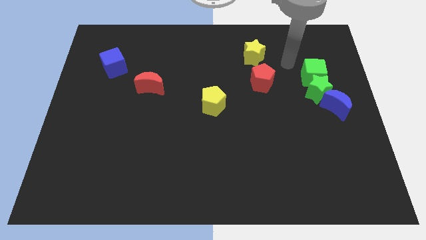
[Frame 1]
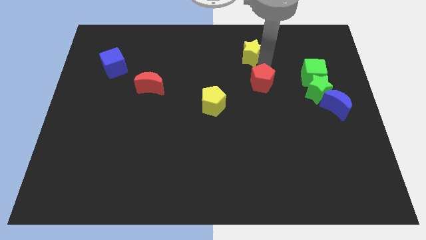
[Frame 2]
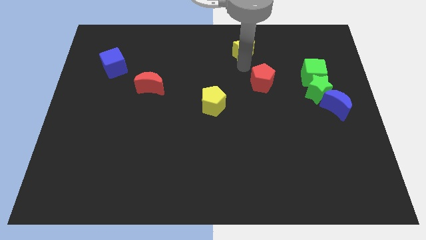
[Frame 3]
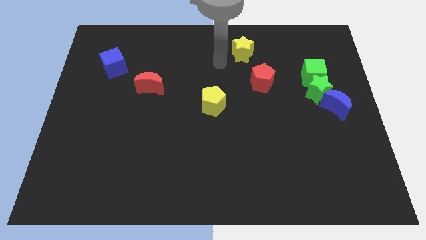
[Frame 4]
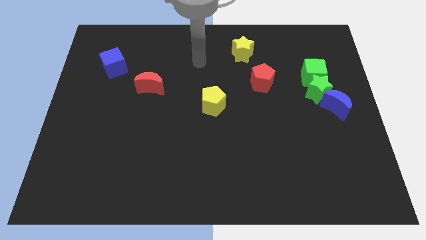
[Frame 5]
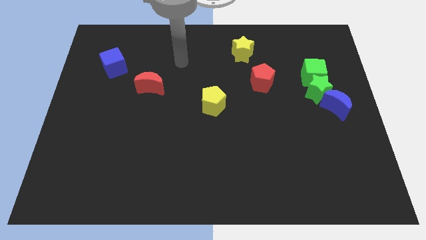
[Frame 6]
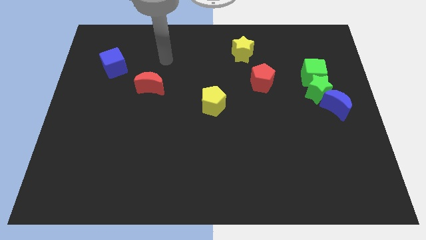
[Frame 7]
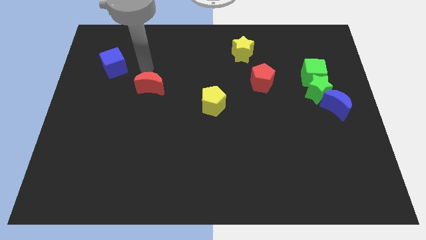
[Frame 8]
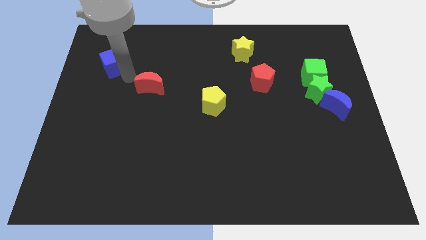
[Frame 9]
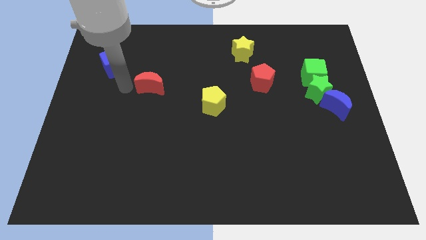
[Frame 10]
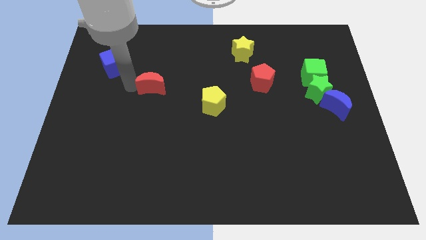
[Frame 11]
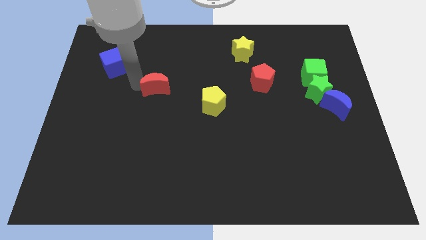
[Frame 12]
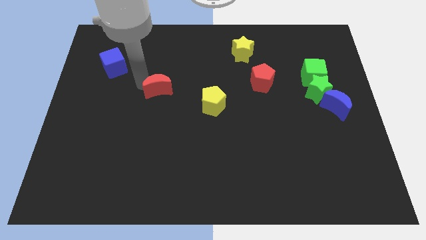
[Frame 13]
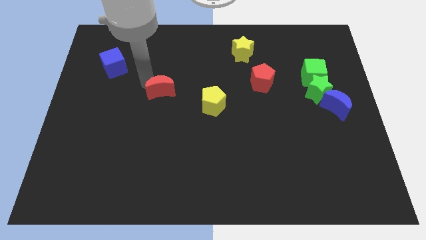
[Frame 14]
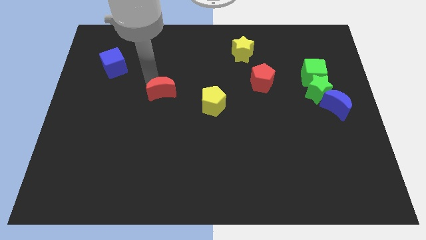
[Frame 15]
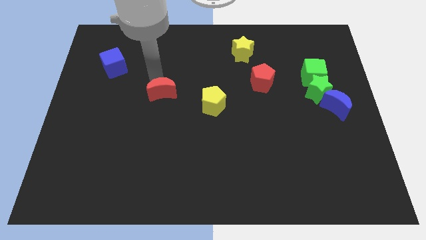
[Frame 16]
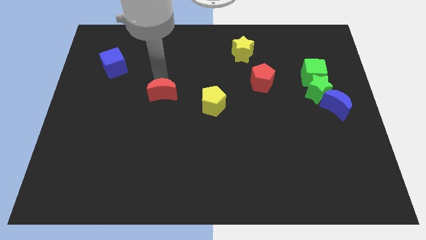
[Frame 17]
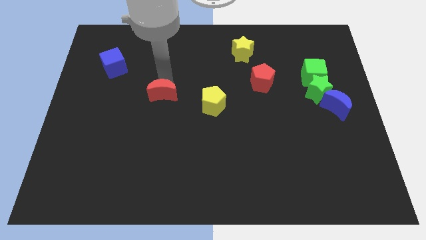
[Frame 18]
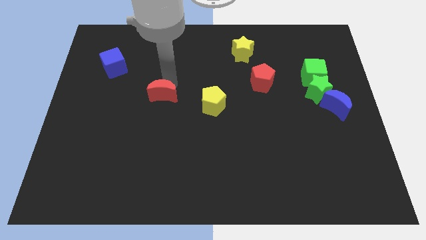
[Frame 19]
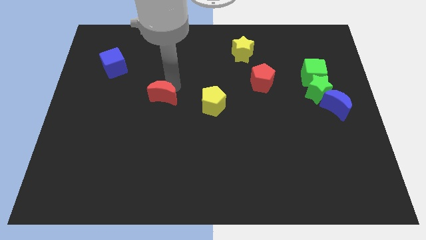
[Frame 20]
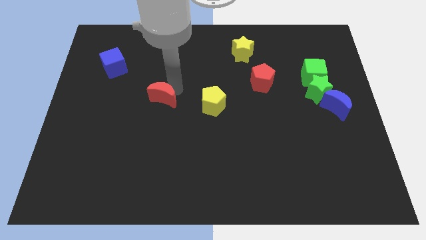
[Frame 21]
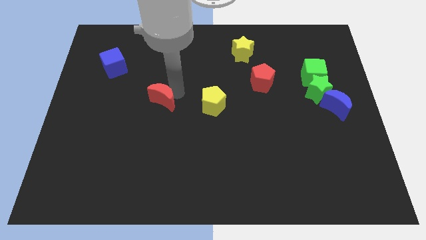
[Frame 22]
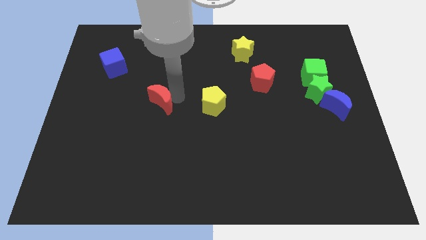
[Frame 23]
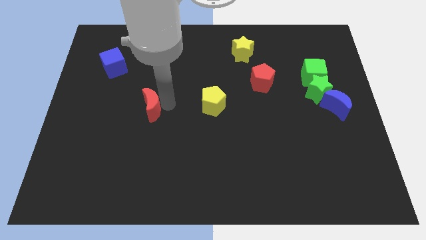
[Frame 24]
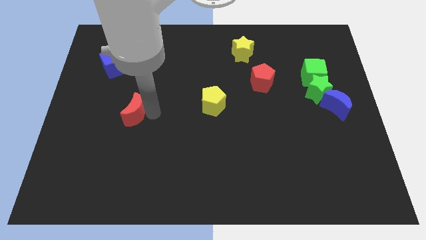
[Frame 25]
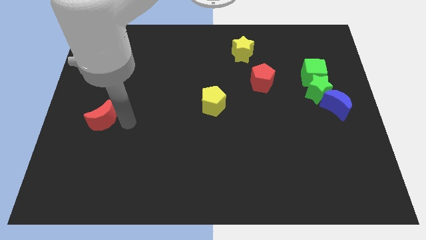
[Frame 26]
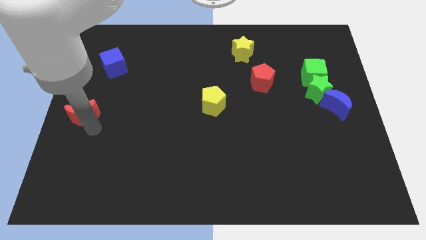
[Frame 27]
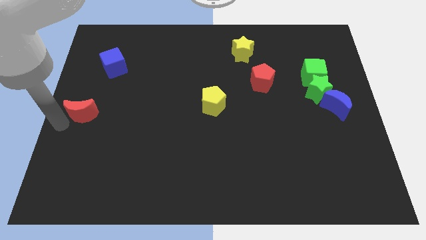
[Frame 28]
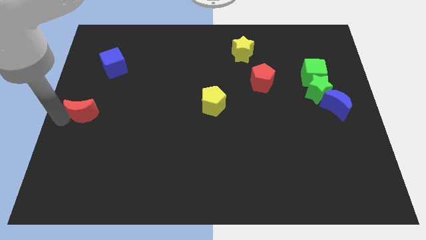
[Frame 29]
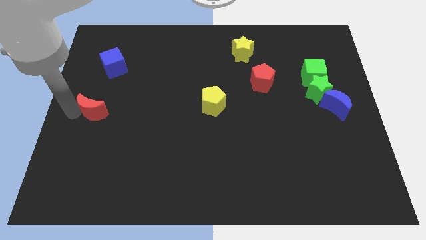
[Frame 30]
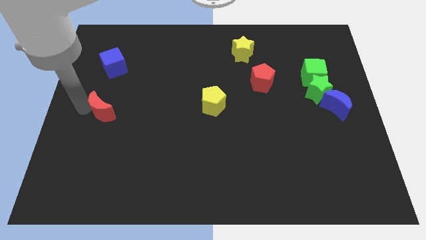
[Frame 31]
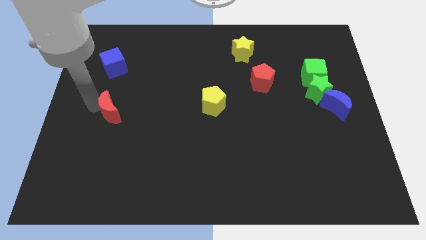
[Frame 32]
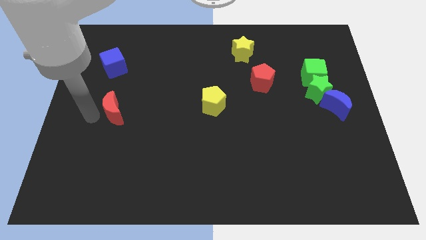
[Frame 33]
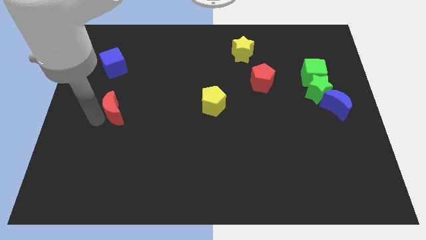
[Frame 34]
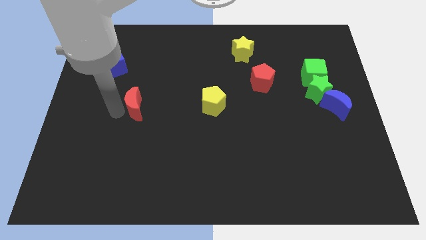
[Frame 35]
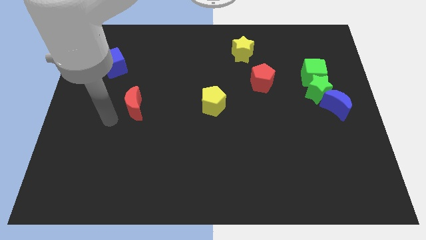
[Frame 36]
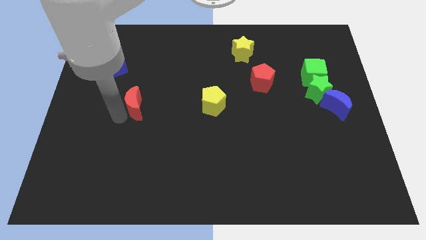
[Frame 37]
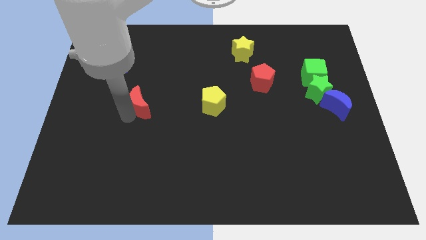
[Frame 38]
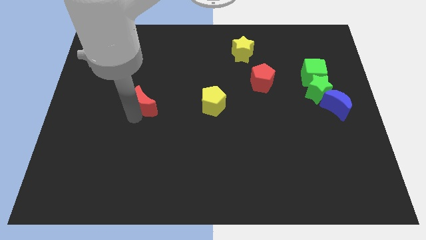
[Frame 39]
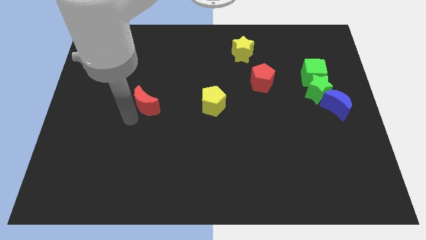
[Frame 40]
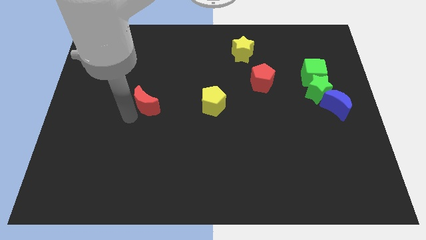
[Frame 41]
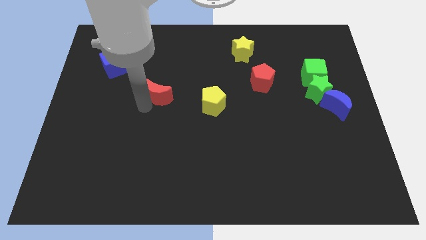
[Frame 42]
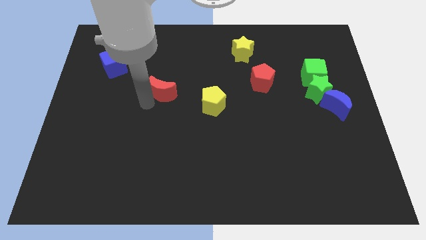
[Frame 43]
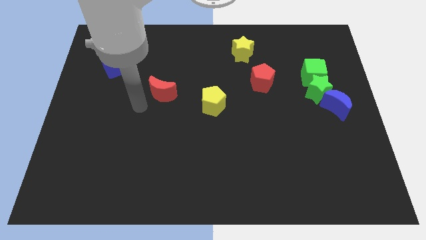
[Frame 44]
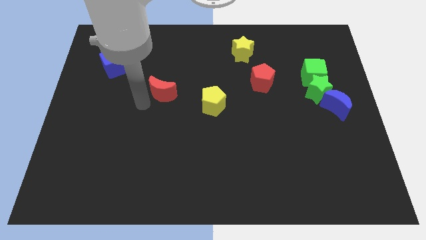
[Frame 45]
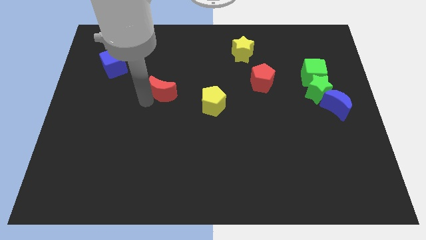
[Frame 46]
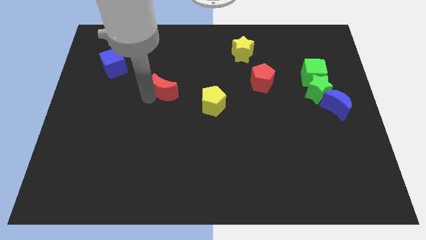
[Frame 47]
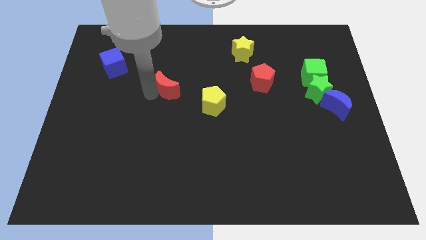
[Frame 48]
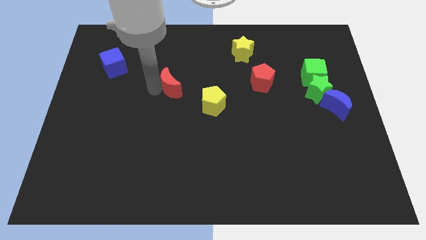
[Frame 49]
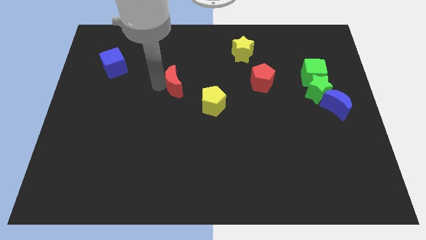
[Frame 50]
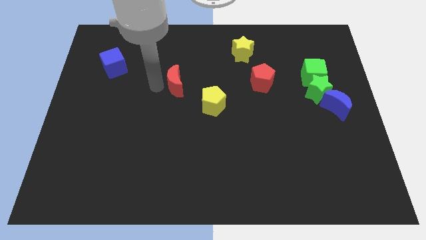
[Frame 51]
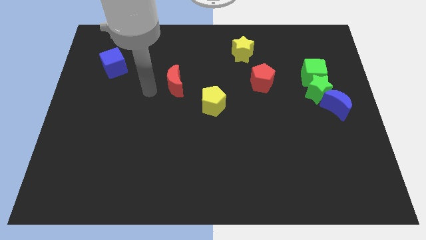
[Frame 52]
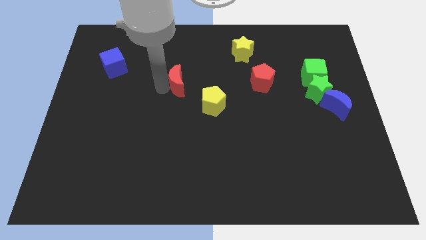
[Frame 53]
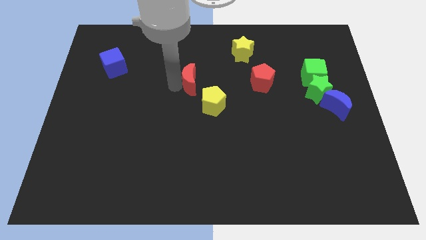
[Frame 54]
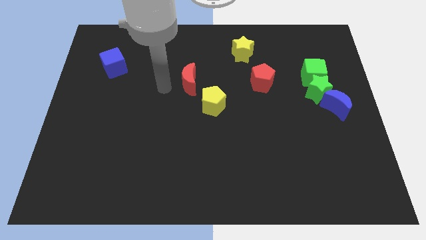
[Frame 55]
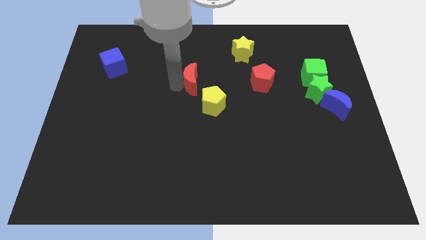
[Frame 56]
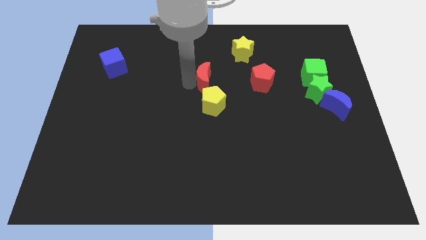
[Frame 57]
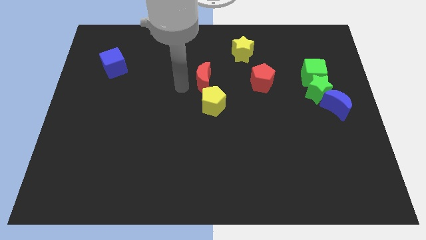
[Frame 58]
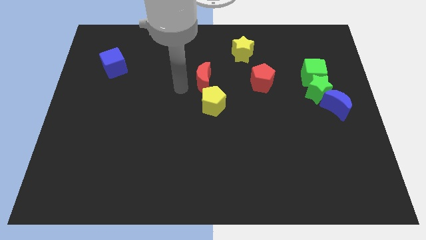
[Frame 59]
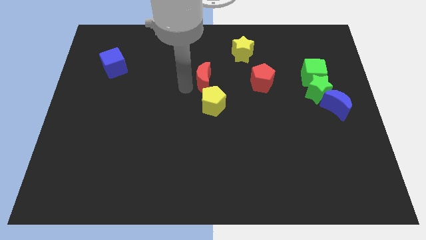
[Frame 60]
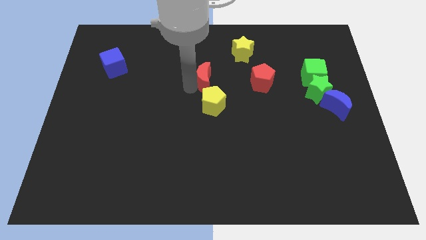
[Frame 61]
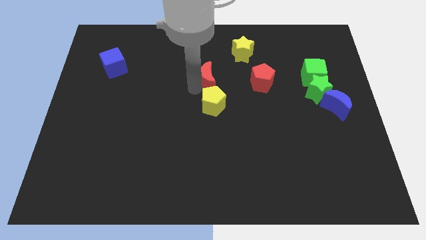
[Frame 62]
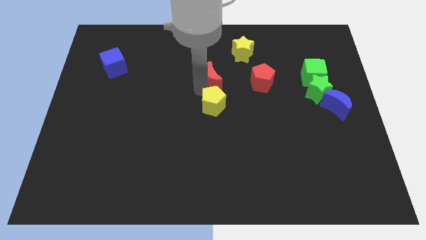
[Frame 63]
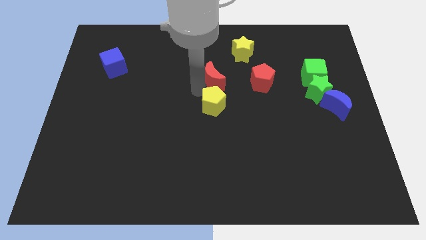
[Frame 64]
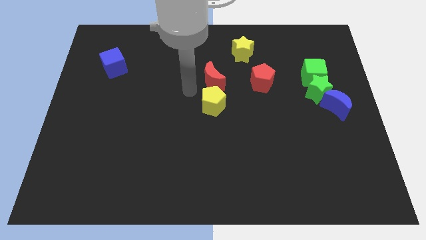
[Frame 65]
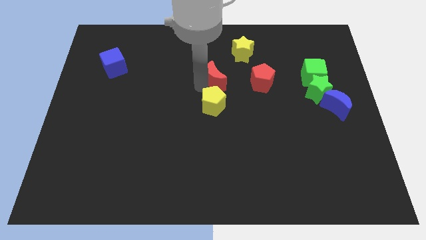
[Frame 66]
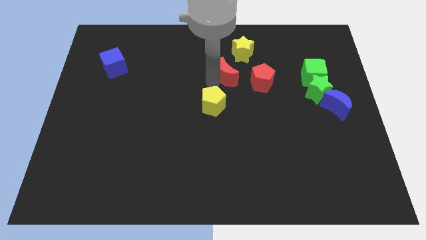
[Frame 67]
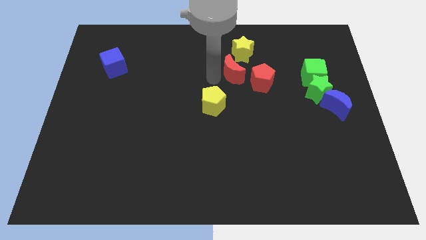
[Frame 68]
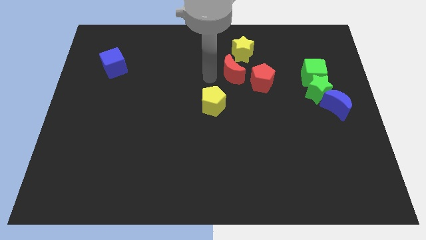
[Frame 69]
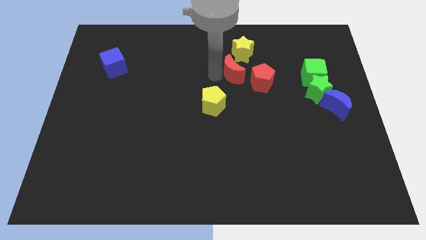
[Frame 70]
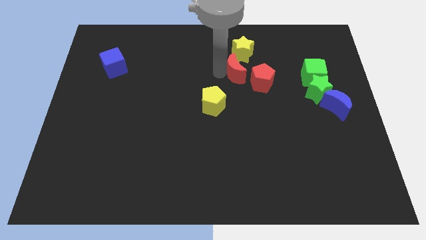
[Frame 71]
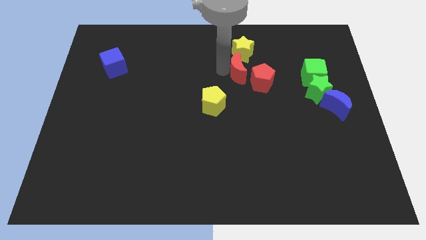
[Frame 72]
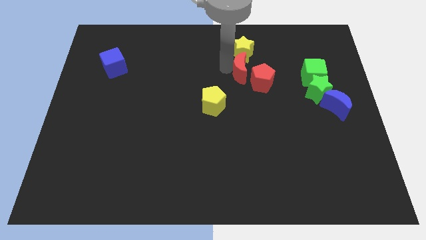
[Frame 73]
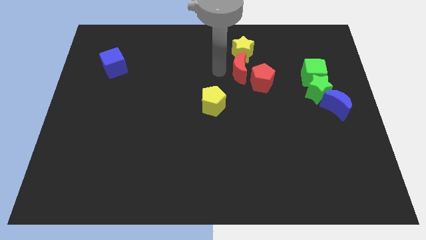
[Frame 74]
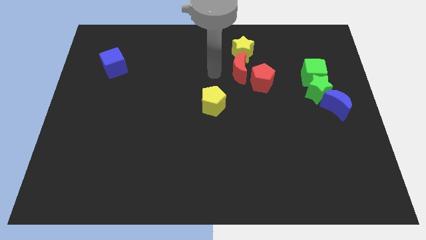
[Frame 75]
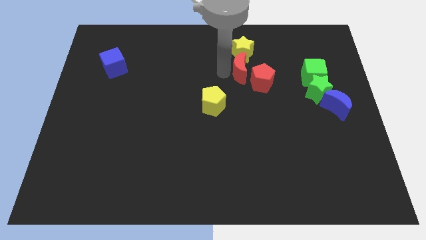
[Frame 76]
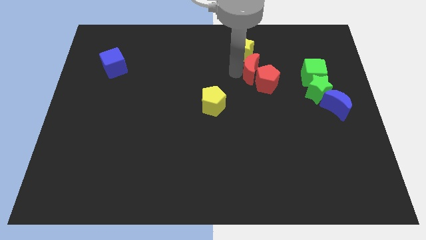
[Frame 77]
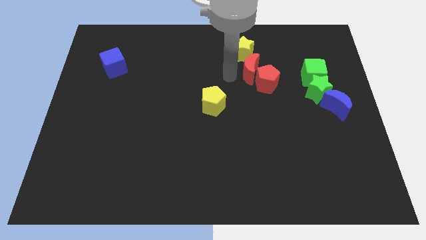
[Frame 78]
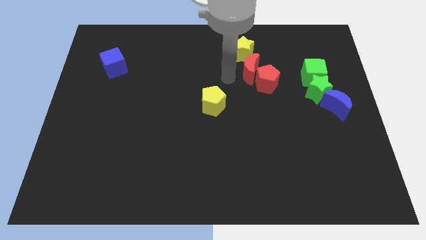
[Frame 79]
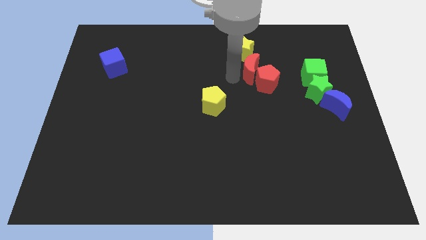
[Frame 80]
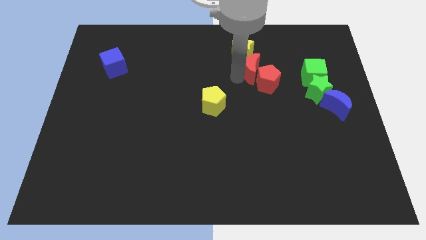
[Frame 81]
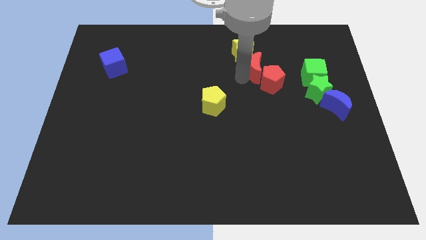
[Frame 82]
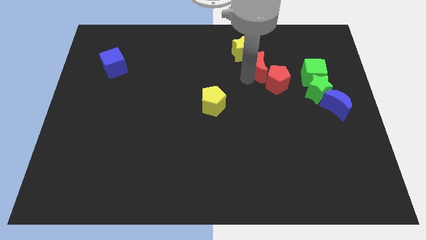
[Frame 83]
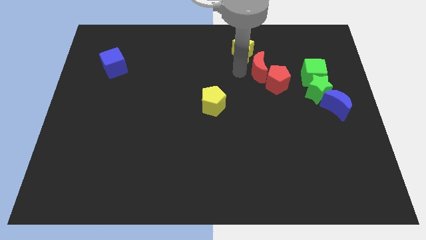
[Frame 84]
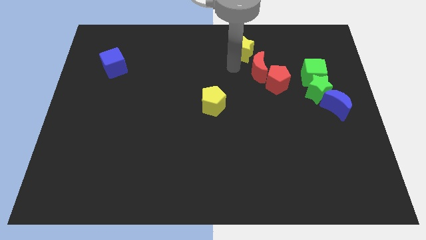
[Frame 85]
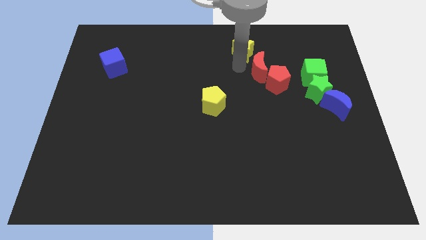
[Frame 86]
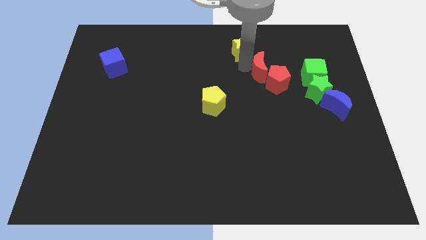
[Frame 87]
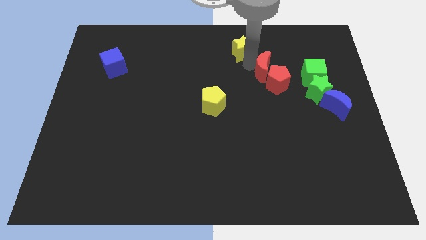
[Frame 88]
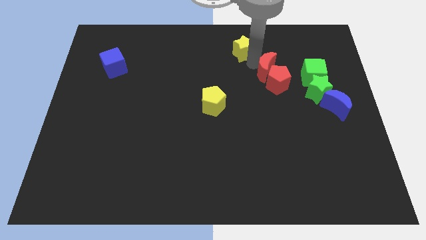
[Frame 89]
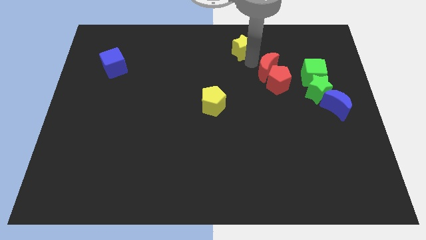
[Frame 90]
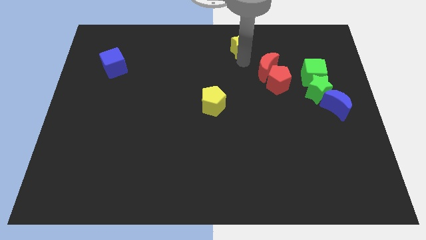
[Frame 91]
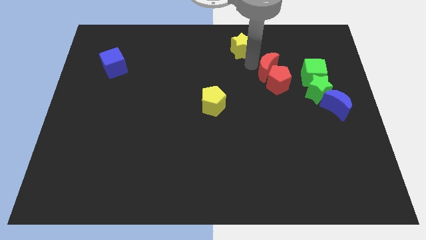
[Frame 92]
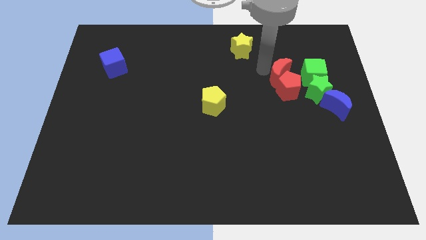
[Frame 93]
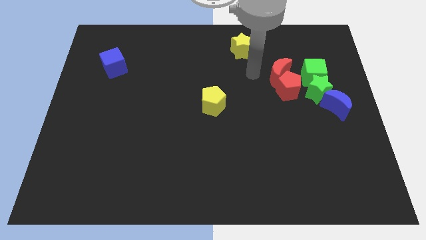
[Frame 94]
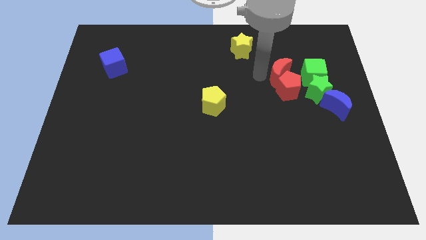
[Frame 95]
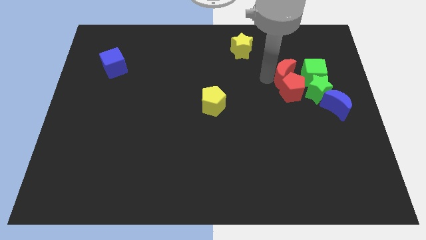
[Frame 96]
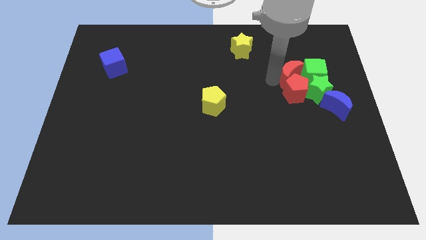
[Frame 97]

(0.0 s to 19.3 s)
put the red moon to the green cube
